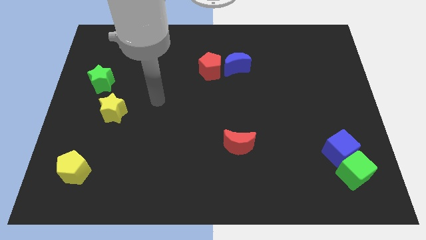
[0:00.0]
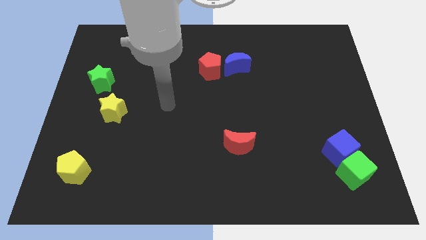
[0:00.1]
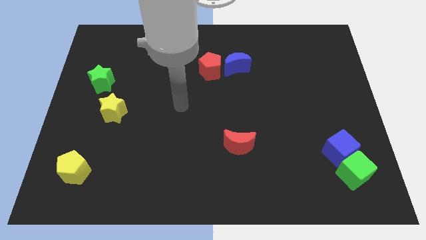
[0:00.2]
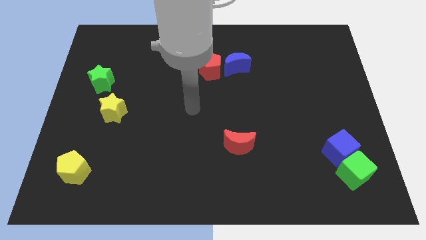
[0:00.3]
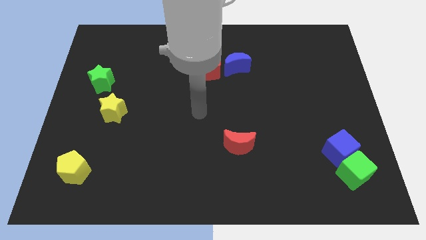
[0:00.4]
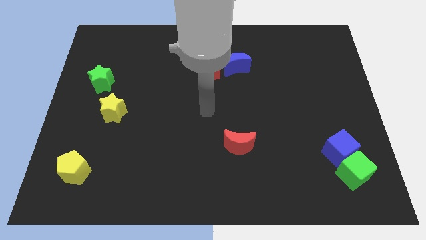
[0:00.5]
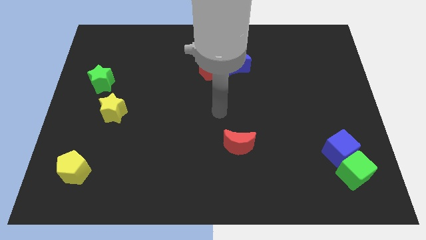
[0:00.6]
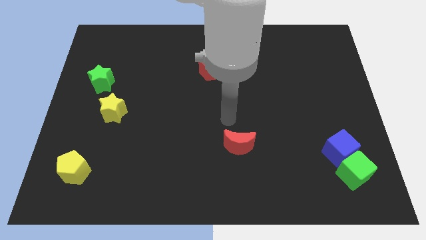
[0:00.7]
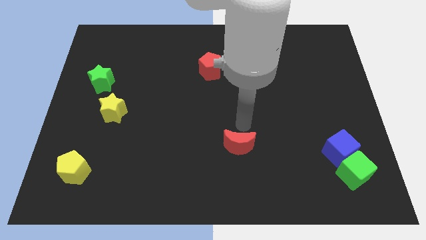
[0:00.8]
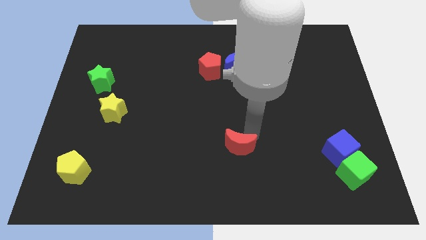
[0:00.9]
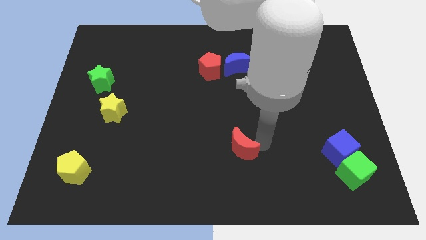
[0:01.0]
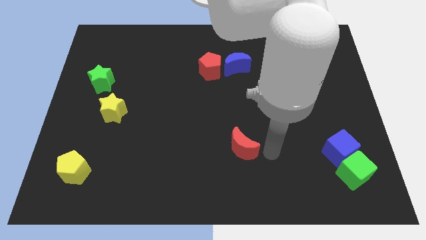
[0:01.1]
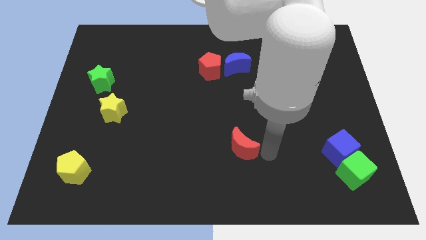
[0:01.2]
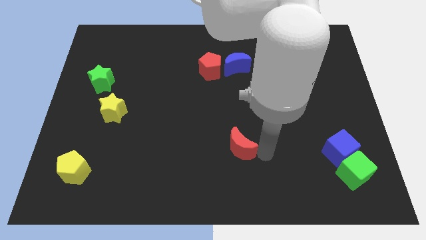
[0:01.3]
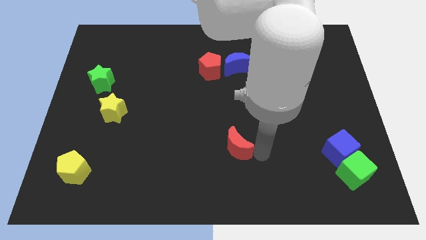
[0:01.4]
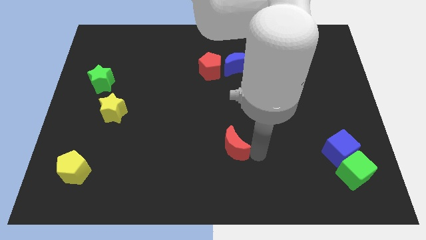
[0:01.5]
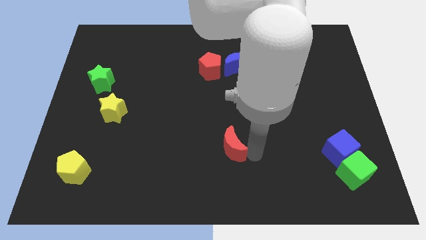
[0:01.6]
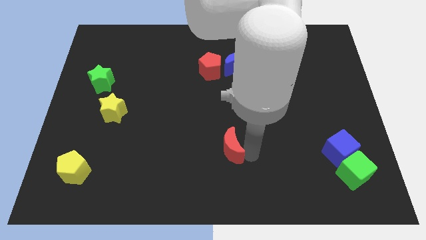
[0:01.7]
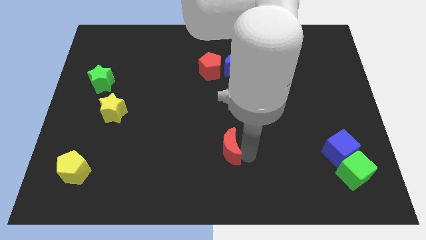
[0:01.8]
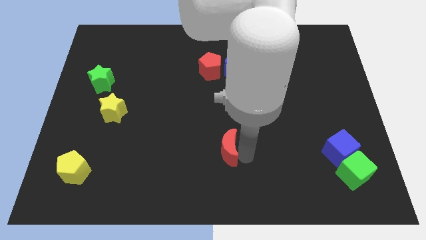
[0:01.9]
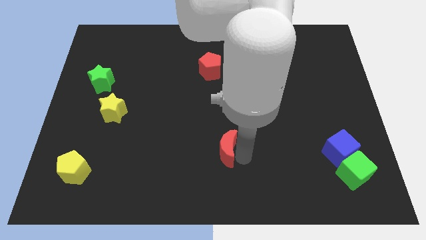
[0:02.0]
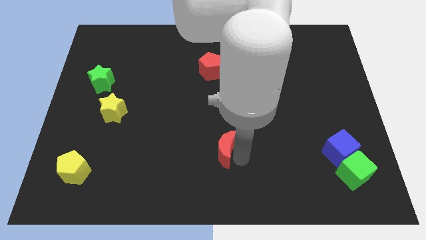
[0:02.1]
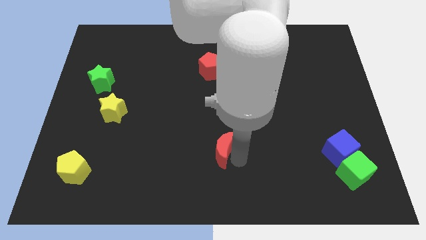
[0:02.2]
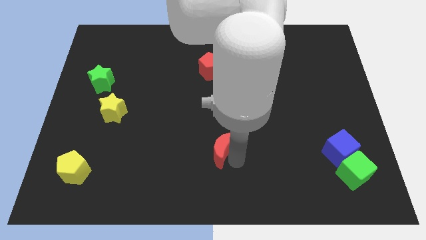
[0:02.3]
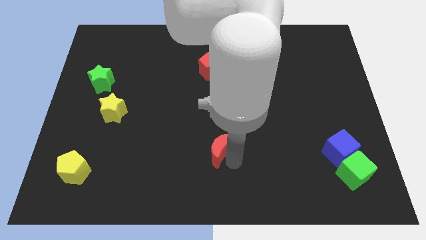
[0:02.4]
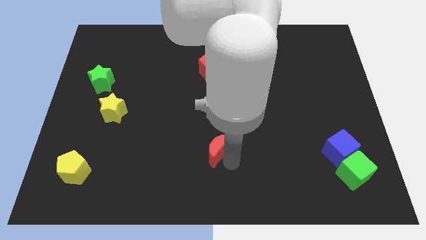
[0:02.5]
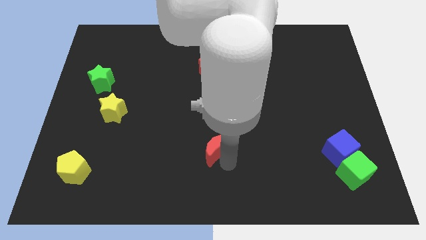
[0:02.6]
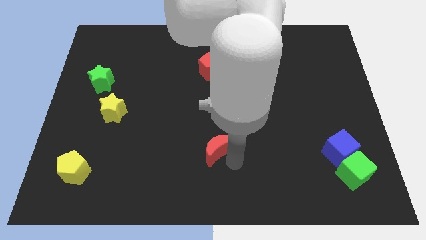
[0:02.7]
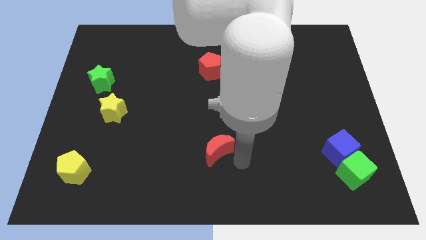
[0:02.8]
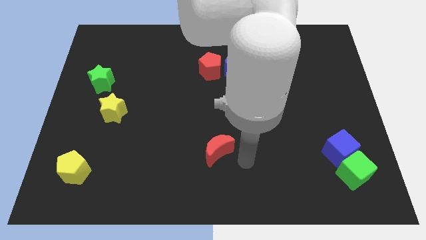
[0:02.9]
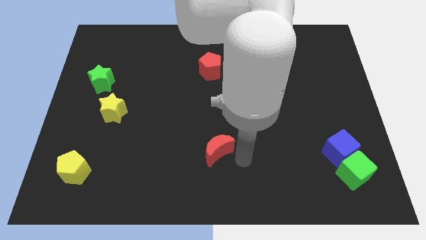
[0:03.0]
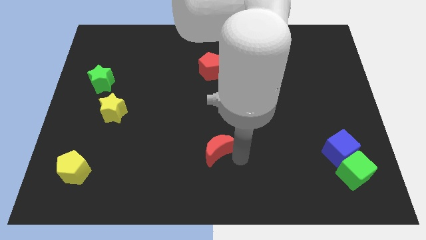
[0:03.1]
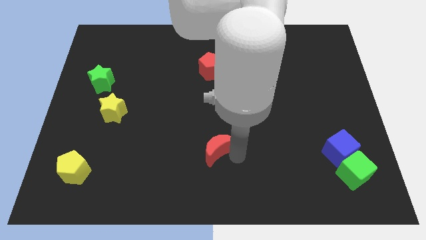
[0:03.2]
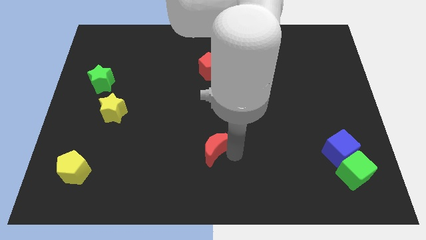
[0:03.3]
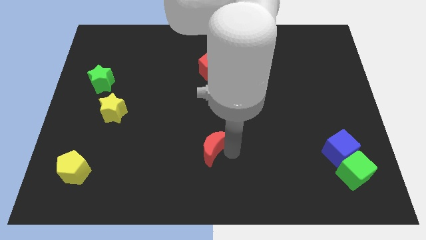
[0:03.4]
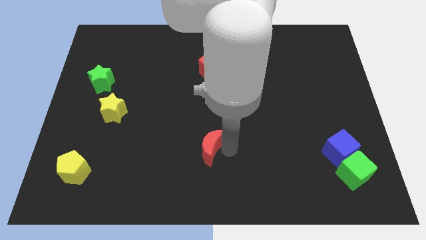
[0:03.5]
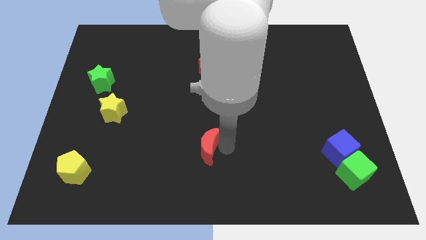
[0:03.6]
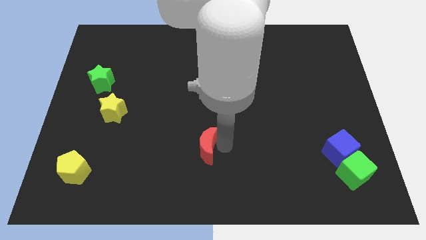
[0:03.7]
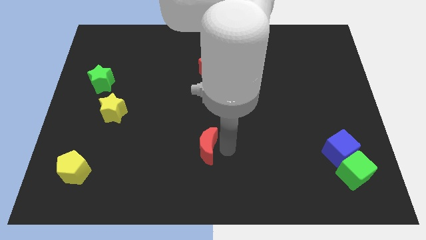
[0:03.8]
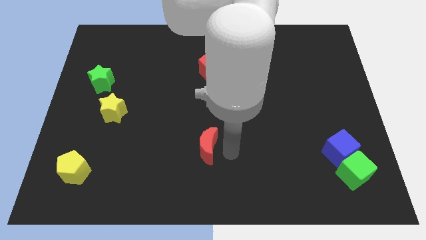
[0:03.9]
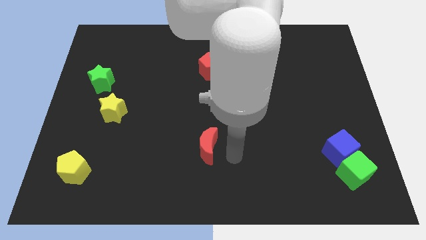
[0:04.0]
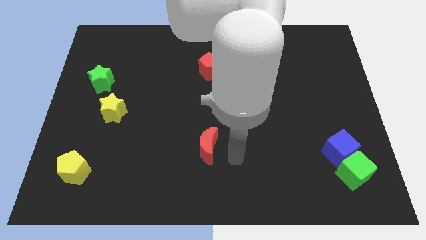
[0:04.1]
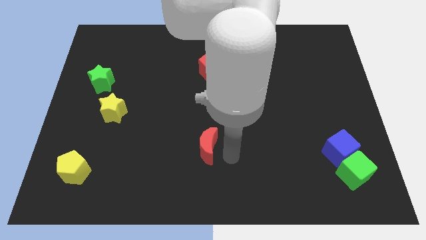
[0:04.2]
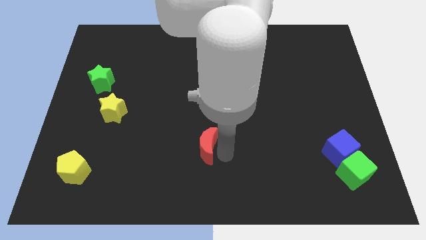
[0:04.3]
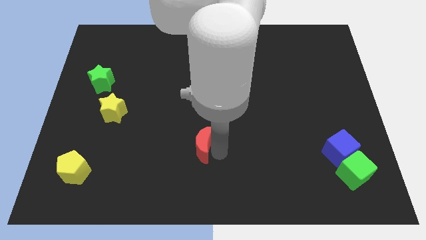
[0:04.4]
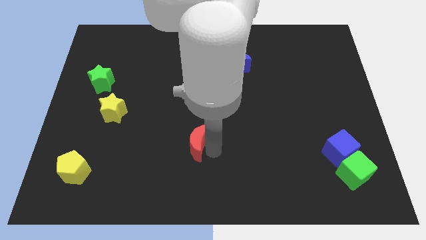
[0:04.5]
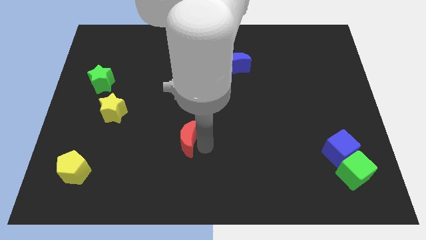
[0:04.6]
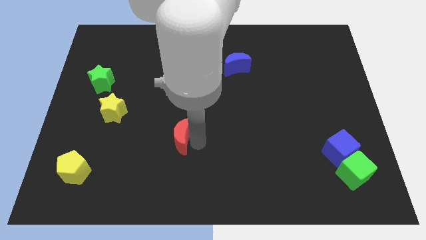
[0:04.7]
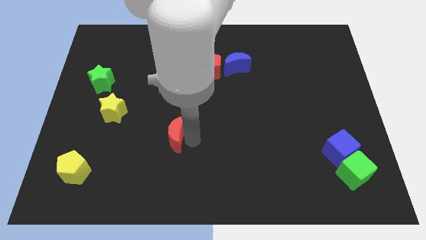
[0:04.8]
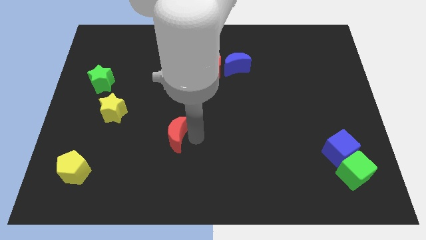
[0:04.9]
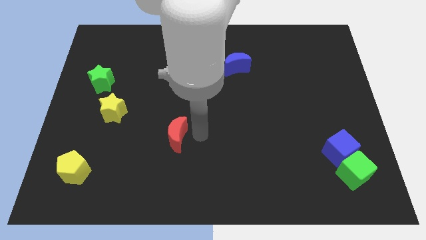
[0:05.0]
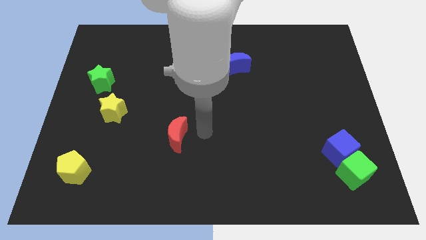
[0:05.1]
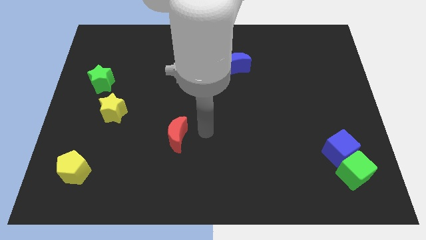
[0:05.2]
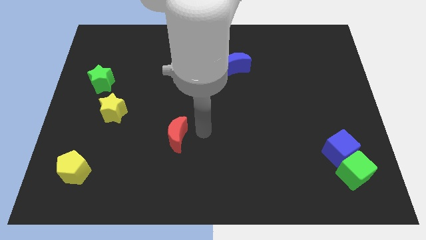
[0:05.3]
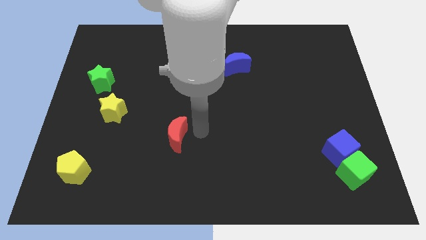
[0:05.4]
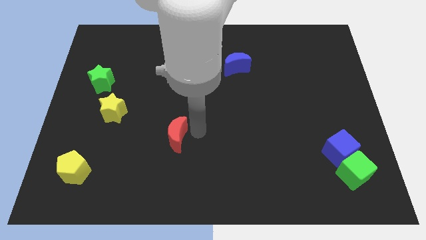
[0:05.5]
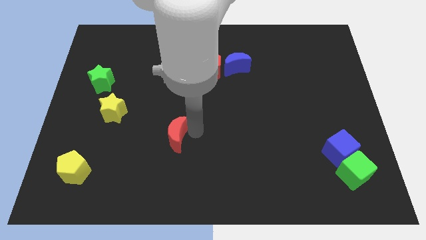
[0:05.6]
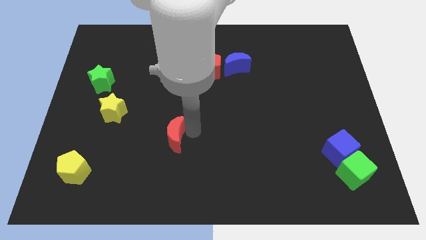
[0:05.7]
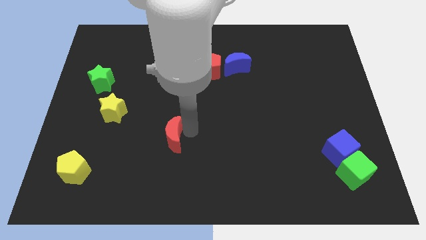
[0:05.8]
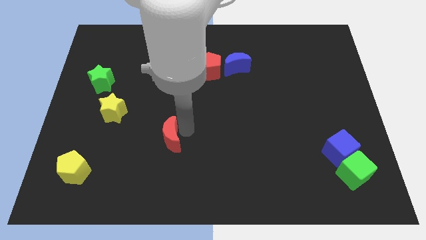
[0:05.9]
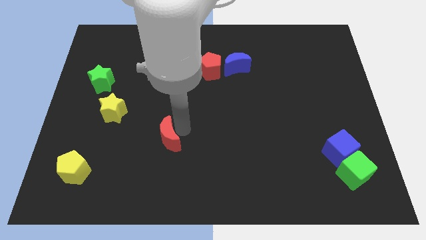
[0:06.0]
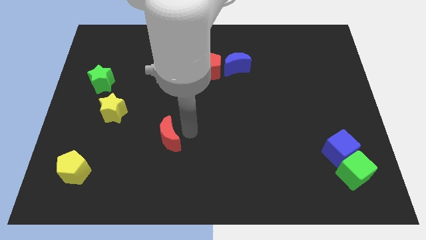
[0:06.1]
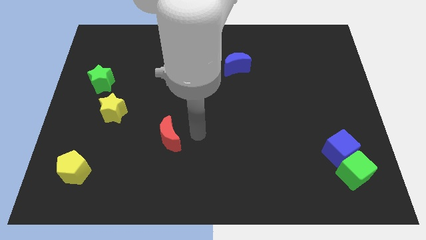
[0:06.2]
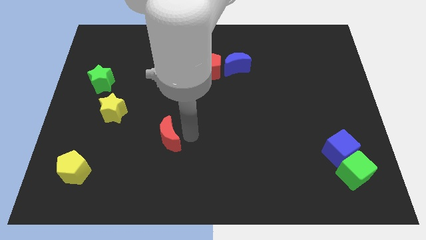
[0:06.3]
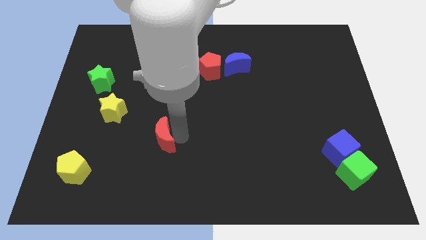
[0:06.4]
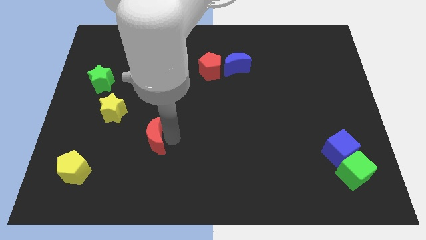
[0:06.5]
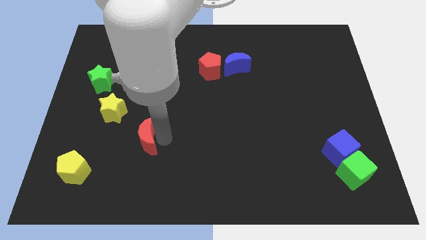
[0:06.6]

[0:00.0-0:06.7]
slide the red moon left

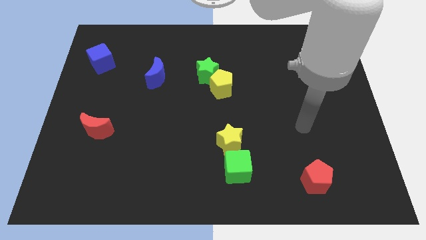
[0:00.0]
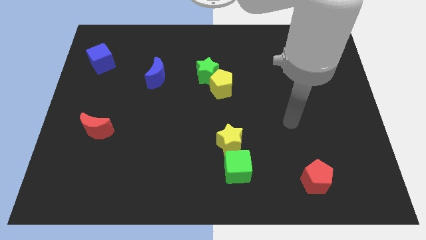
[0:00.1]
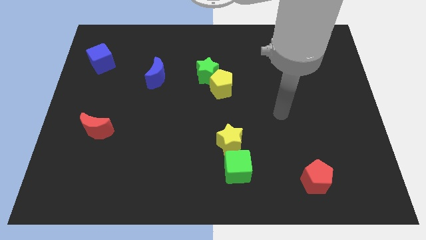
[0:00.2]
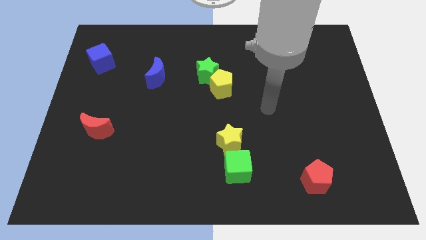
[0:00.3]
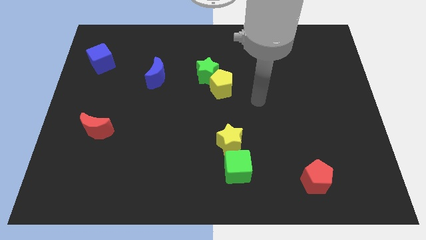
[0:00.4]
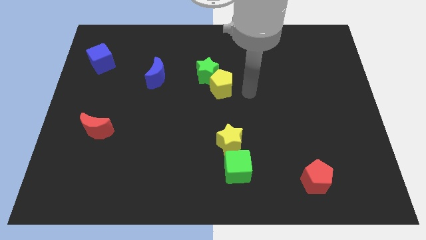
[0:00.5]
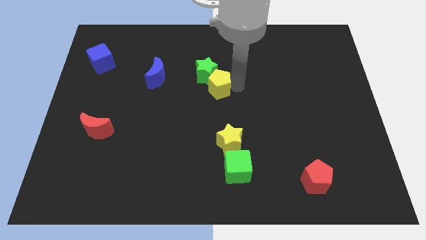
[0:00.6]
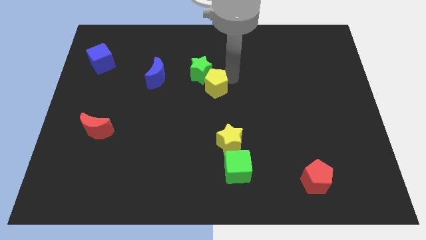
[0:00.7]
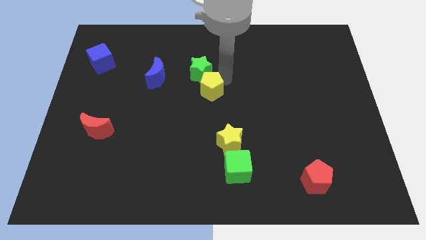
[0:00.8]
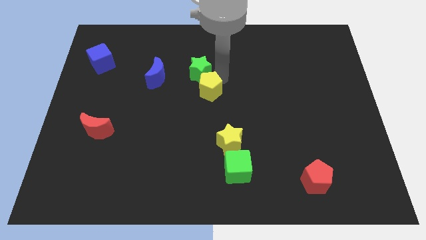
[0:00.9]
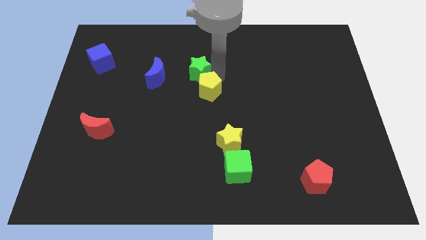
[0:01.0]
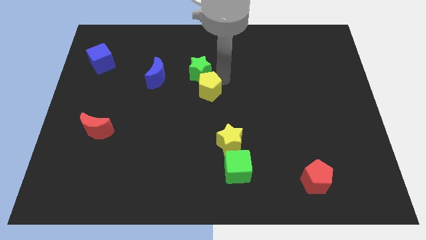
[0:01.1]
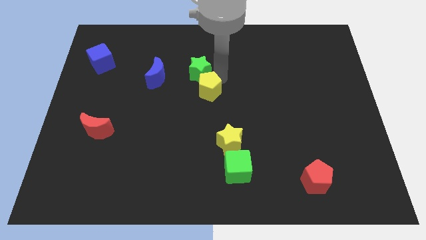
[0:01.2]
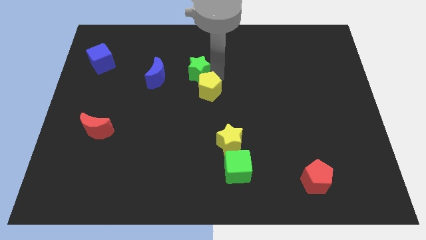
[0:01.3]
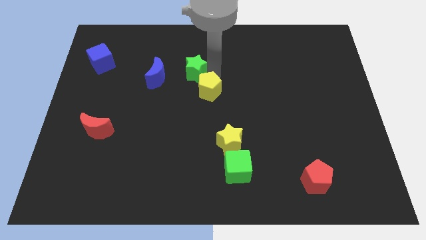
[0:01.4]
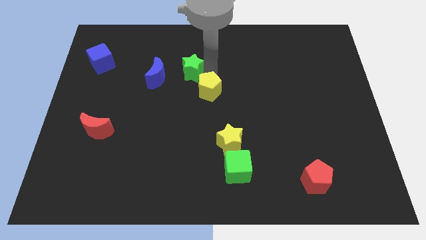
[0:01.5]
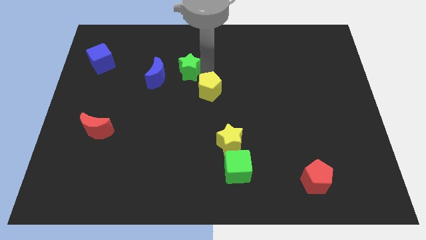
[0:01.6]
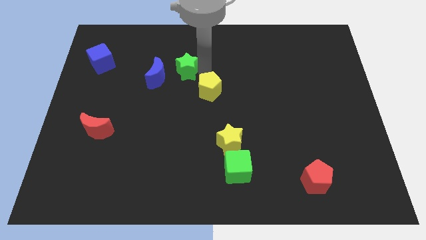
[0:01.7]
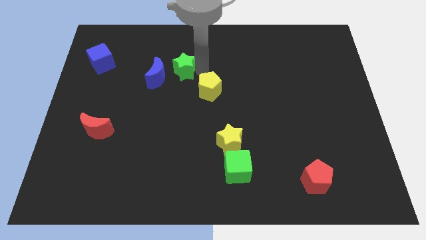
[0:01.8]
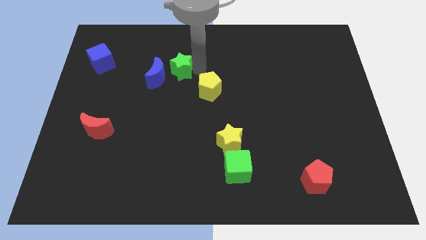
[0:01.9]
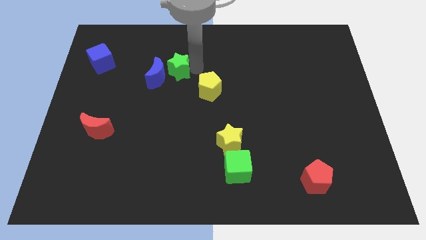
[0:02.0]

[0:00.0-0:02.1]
move the green star slightly to the left
